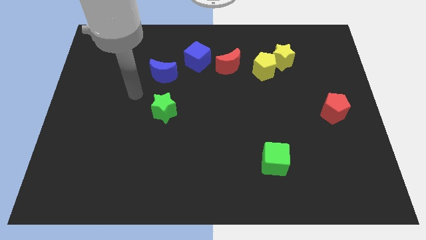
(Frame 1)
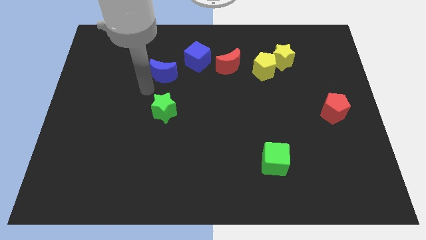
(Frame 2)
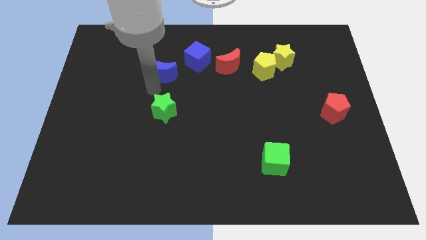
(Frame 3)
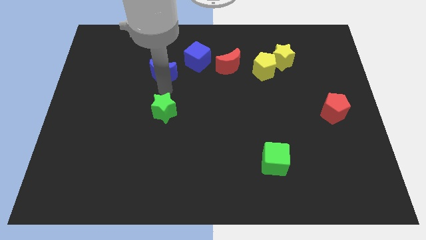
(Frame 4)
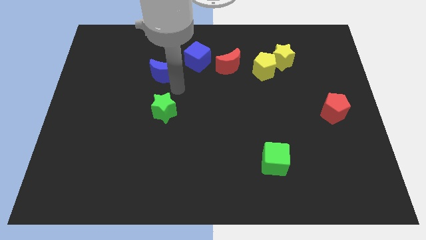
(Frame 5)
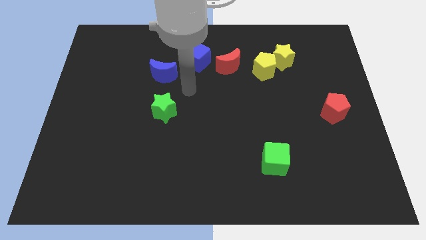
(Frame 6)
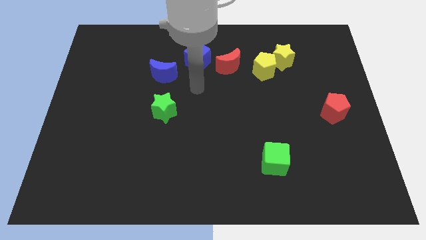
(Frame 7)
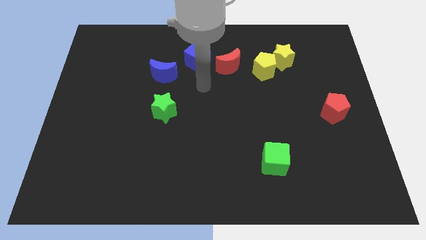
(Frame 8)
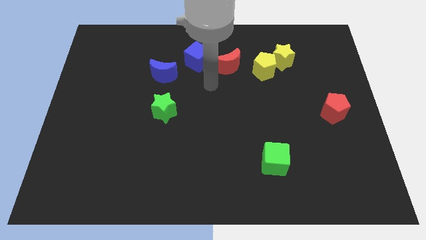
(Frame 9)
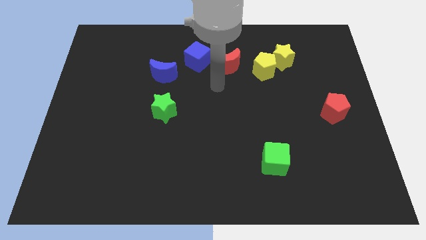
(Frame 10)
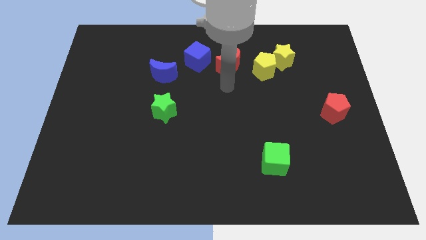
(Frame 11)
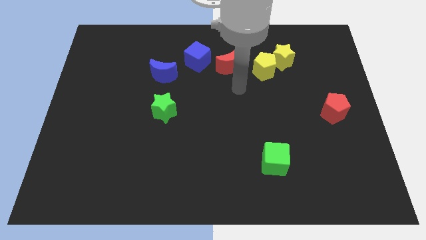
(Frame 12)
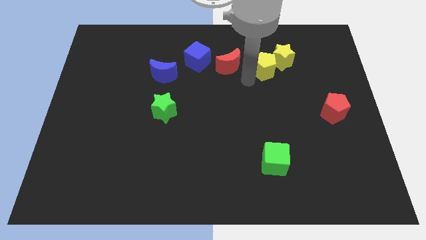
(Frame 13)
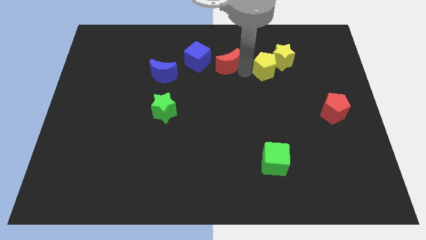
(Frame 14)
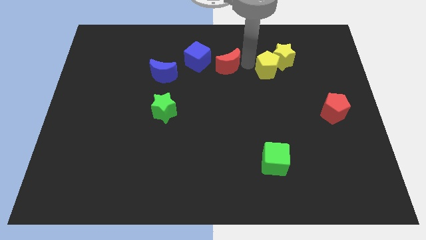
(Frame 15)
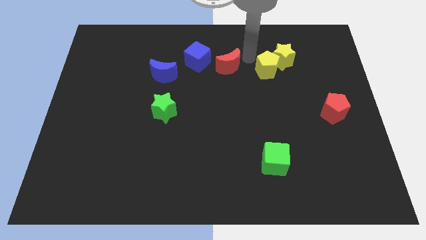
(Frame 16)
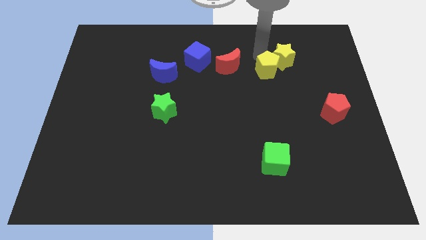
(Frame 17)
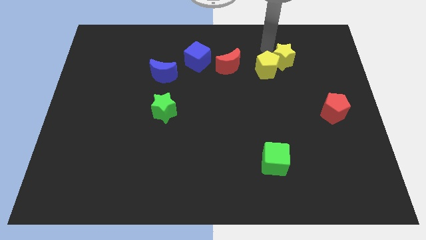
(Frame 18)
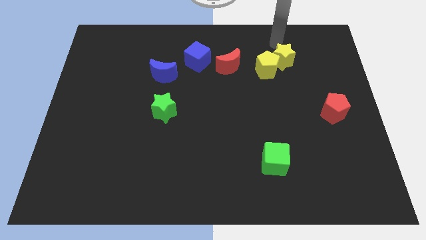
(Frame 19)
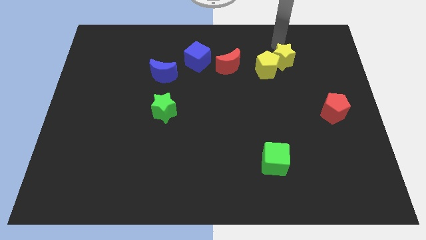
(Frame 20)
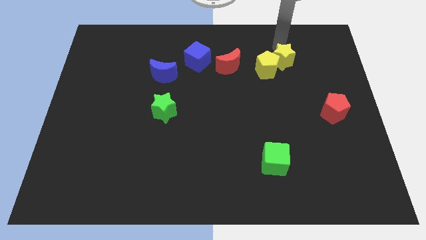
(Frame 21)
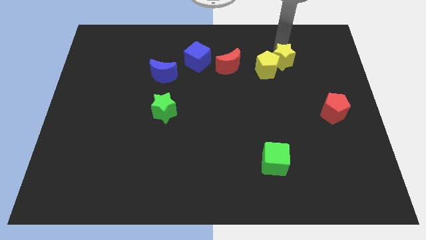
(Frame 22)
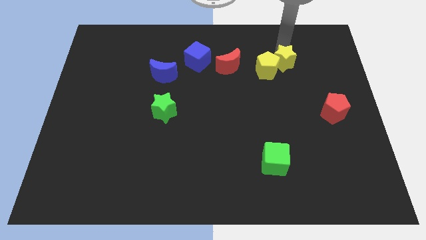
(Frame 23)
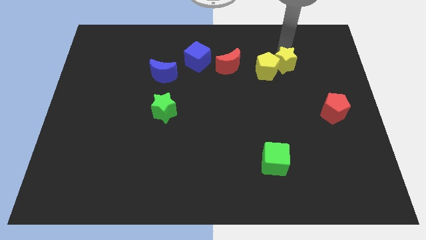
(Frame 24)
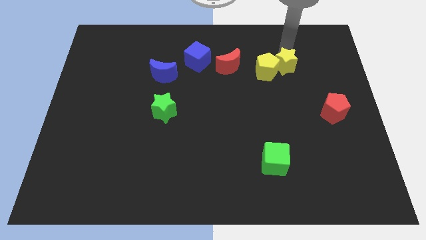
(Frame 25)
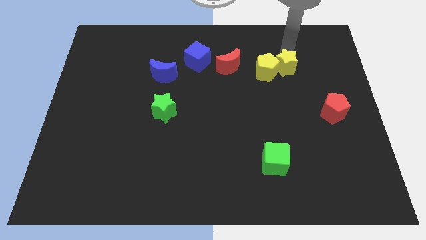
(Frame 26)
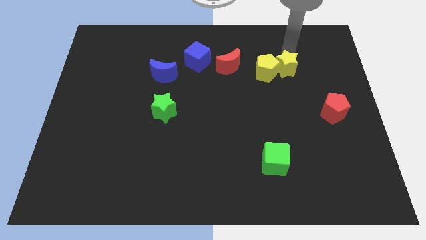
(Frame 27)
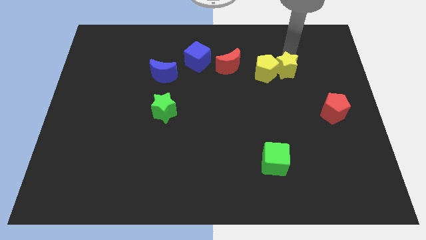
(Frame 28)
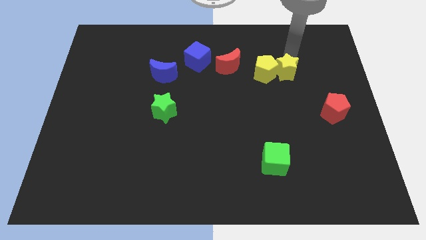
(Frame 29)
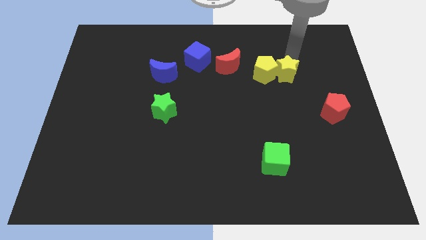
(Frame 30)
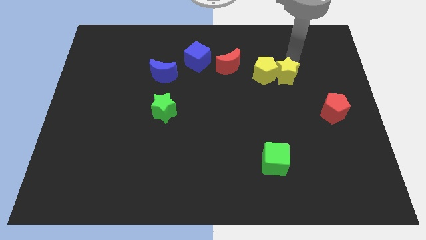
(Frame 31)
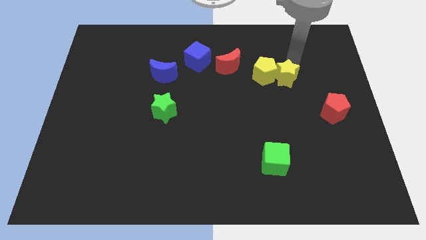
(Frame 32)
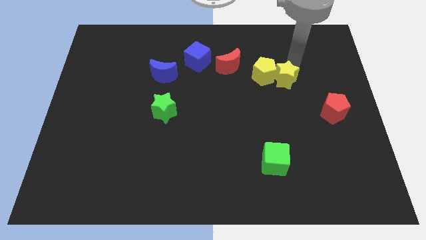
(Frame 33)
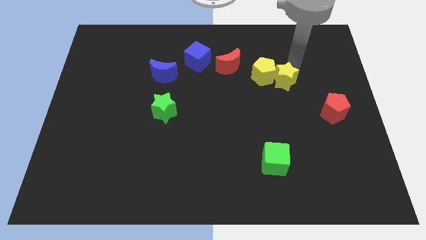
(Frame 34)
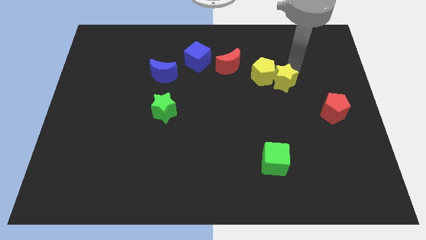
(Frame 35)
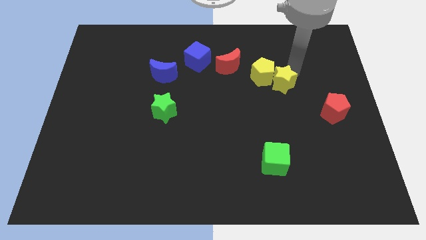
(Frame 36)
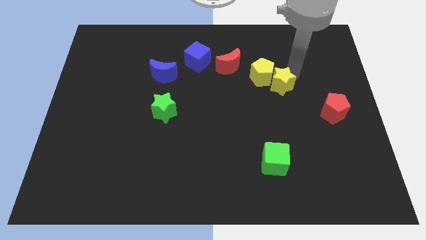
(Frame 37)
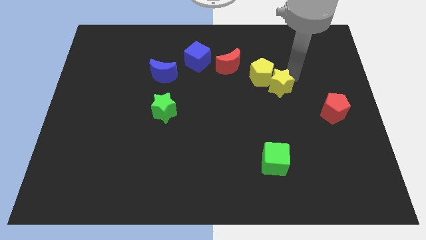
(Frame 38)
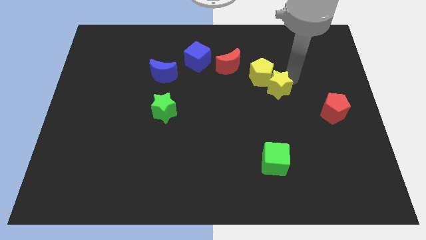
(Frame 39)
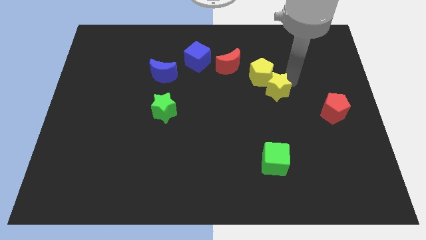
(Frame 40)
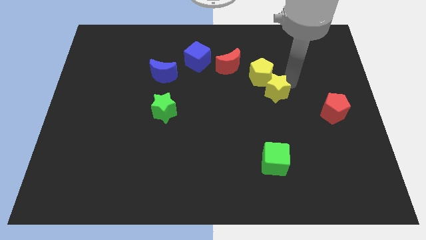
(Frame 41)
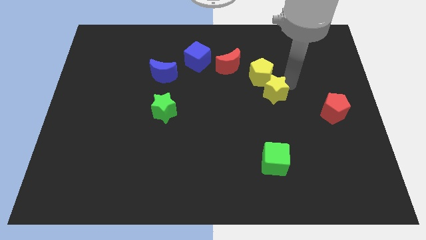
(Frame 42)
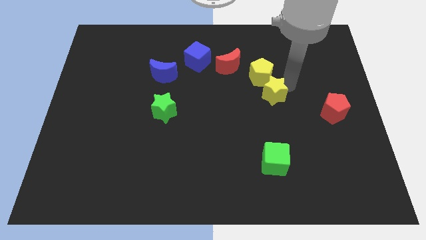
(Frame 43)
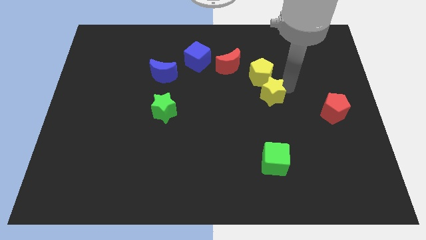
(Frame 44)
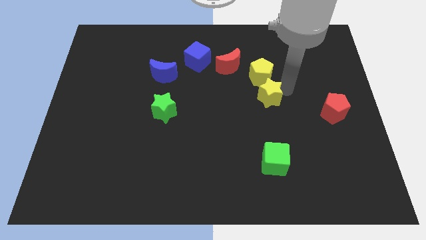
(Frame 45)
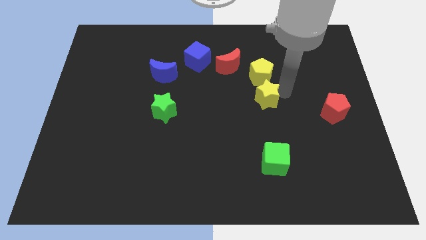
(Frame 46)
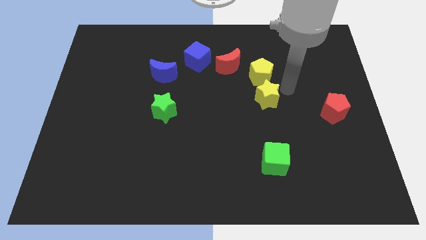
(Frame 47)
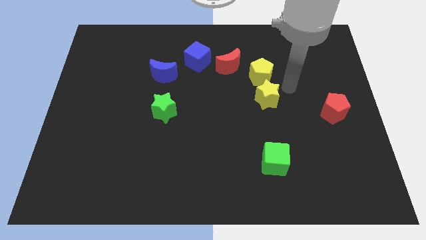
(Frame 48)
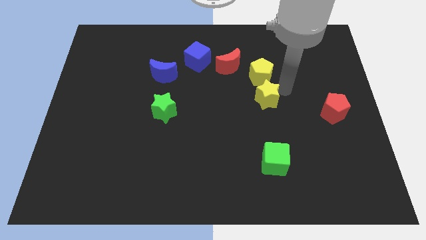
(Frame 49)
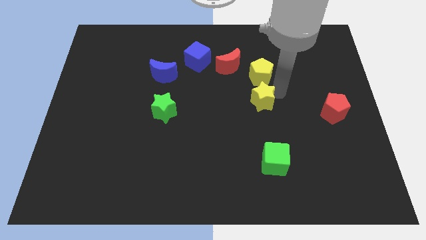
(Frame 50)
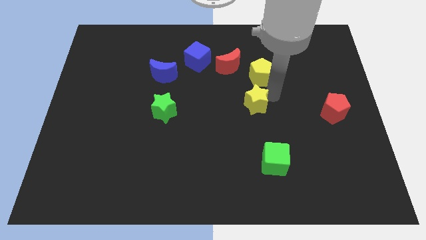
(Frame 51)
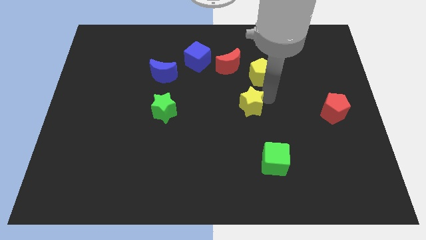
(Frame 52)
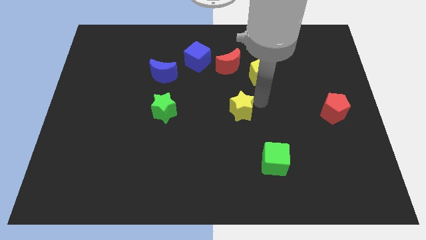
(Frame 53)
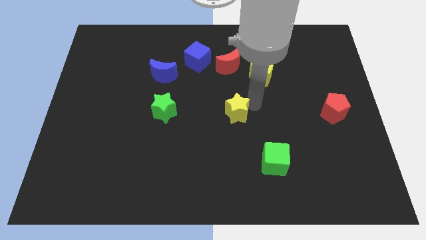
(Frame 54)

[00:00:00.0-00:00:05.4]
push the yellow star downwards and left

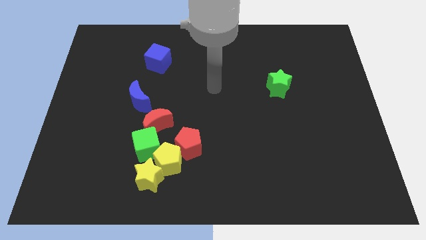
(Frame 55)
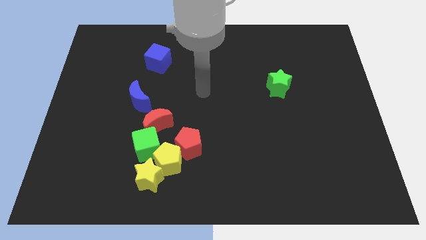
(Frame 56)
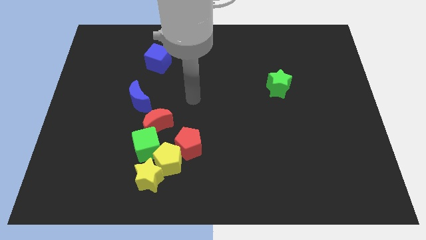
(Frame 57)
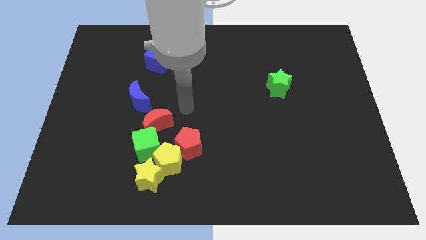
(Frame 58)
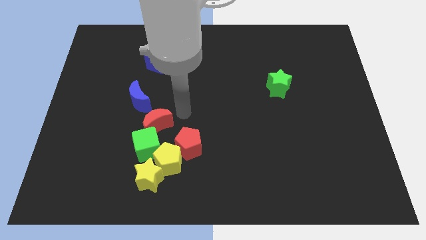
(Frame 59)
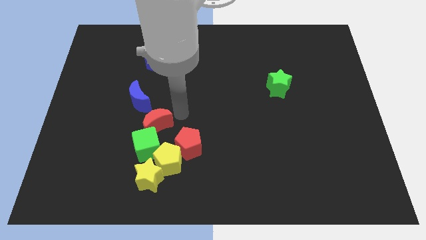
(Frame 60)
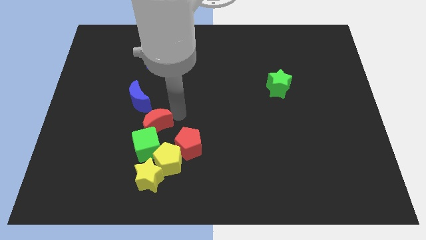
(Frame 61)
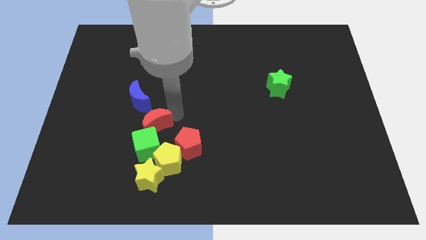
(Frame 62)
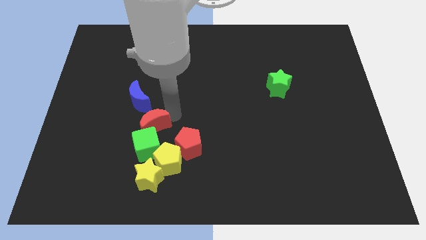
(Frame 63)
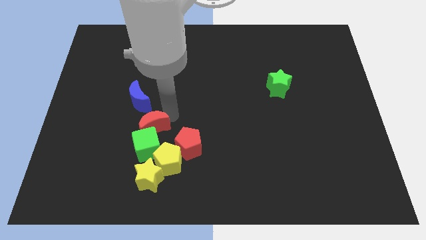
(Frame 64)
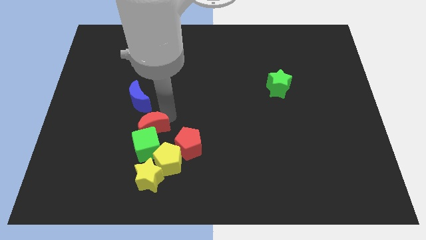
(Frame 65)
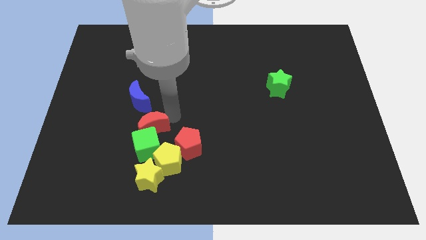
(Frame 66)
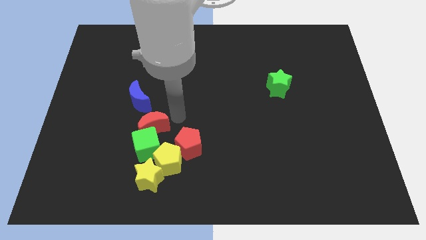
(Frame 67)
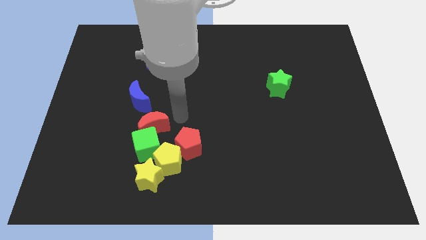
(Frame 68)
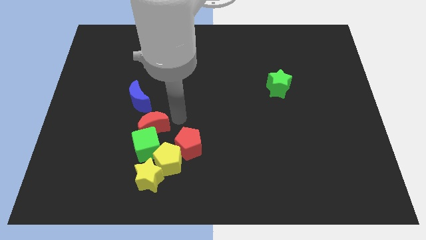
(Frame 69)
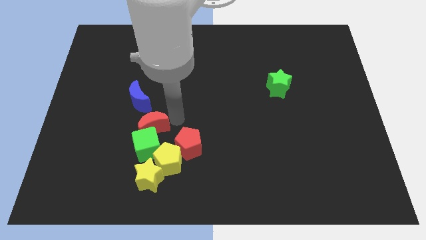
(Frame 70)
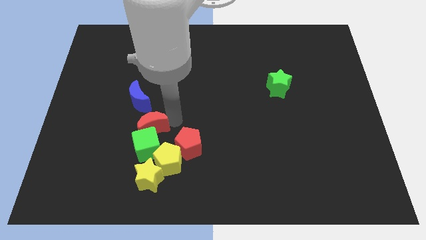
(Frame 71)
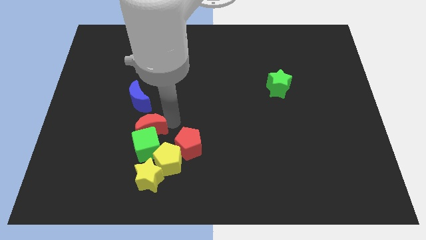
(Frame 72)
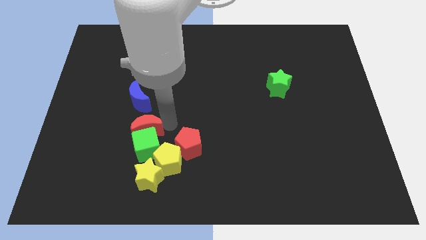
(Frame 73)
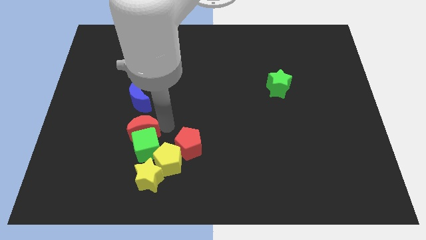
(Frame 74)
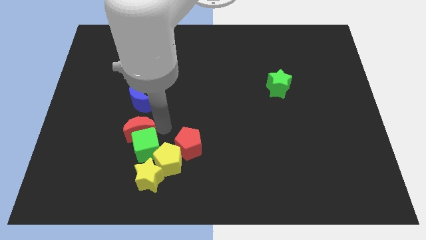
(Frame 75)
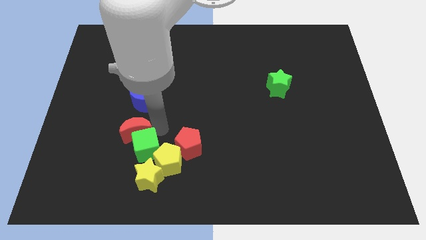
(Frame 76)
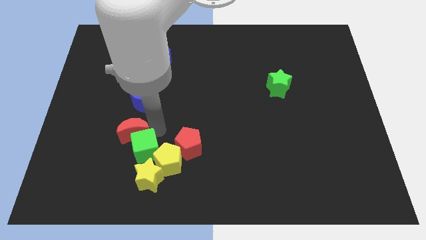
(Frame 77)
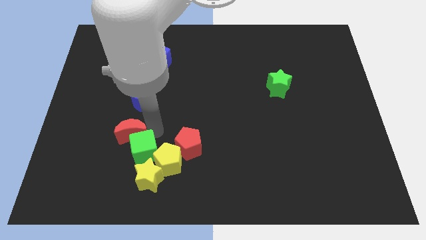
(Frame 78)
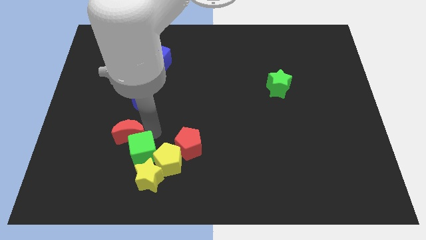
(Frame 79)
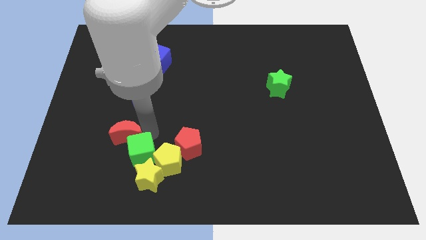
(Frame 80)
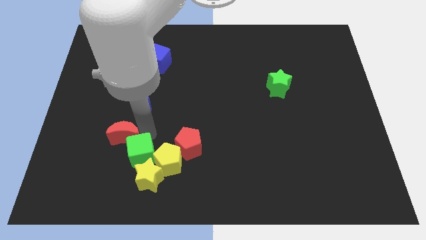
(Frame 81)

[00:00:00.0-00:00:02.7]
push the red moon diagonally downwards and left a little
